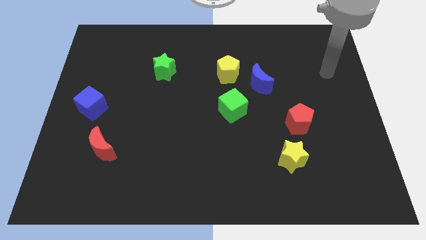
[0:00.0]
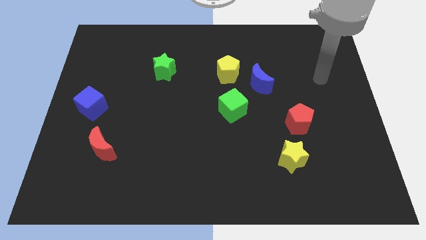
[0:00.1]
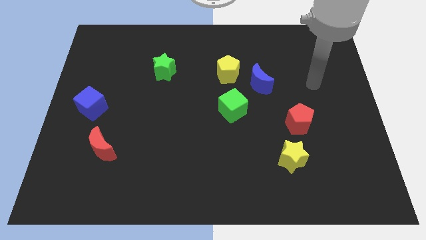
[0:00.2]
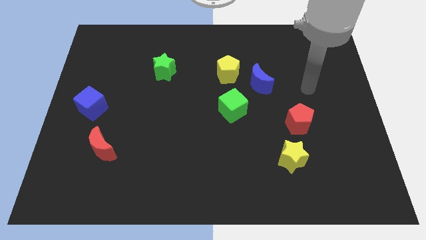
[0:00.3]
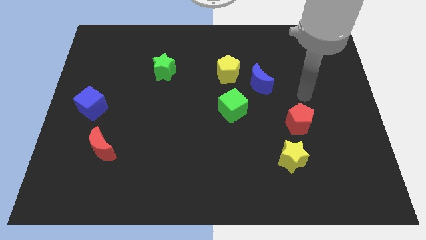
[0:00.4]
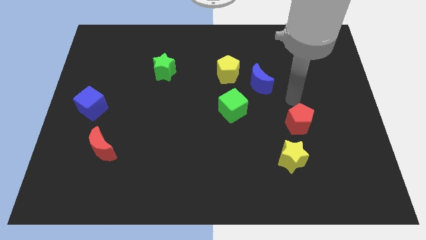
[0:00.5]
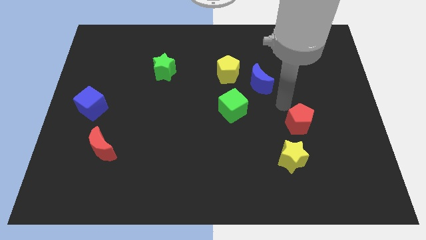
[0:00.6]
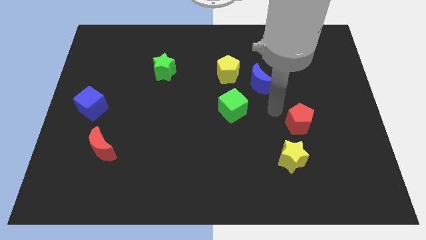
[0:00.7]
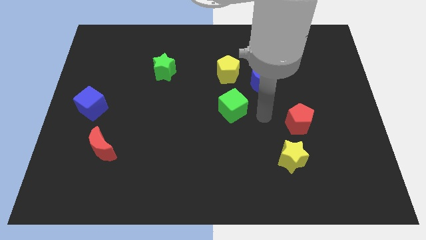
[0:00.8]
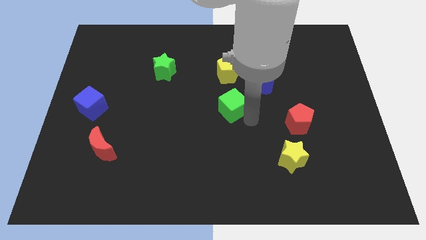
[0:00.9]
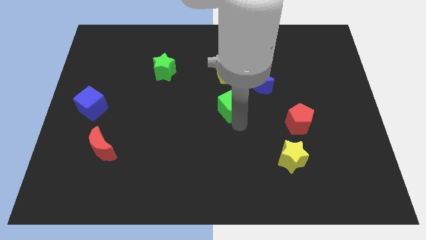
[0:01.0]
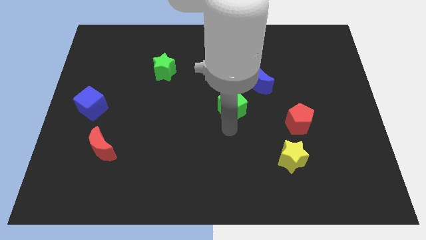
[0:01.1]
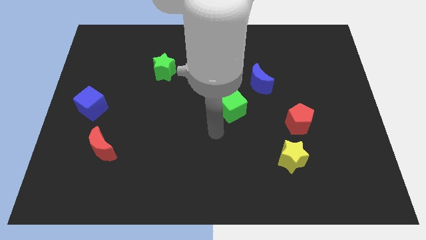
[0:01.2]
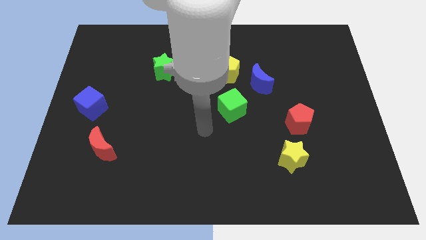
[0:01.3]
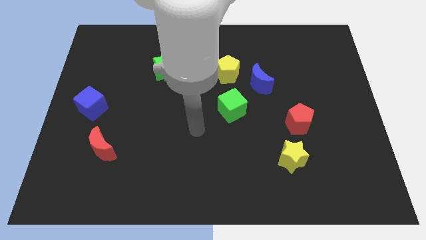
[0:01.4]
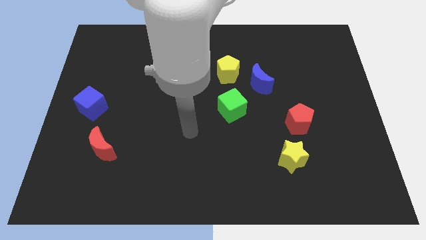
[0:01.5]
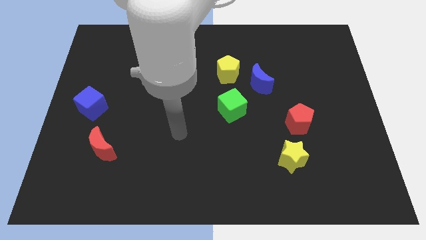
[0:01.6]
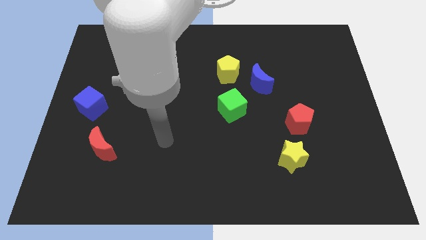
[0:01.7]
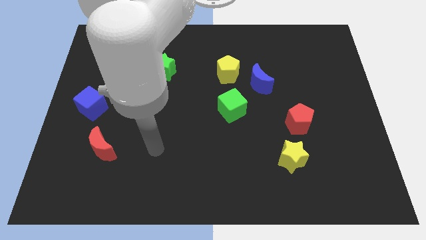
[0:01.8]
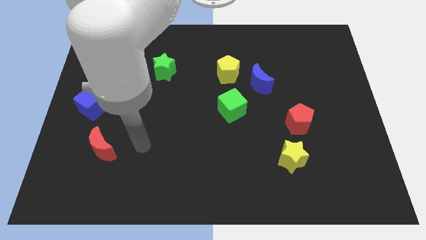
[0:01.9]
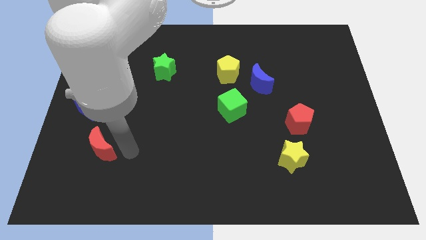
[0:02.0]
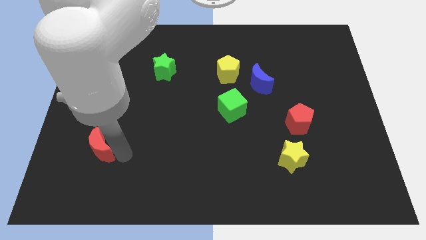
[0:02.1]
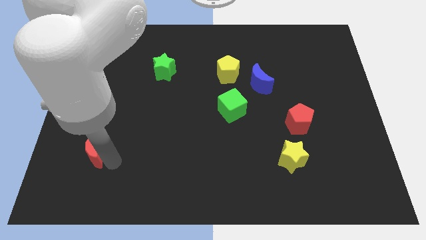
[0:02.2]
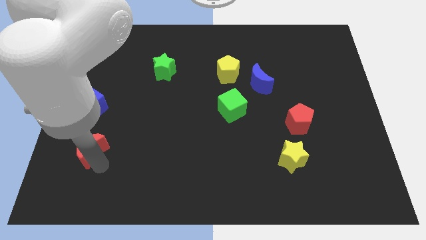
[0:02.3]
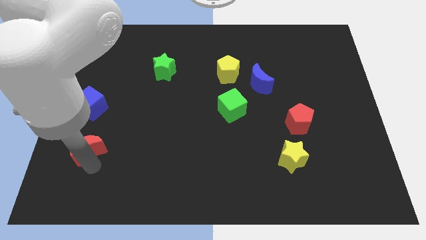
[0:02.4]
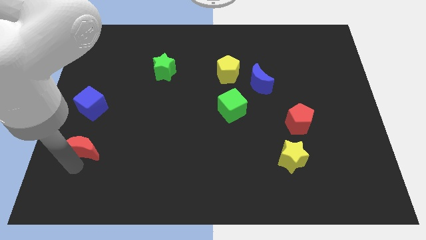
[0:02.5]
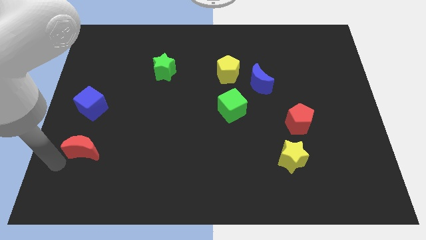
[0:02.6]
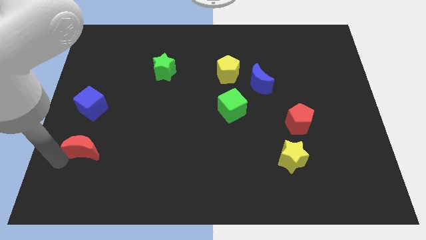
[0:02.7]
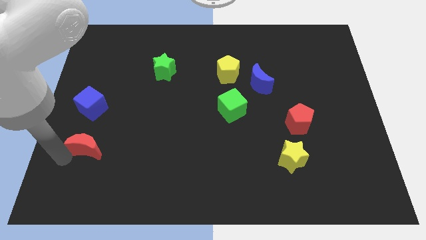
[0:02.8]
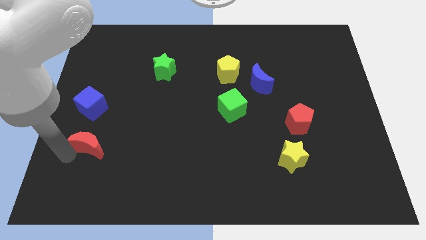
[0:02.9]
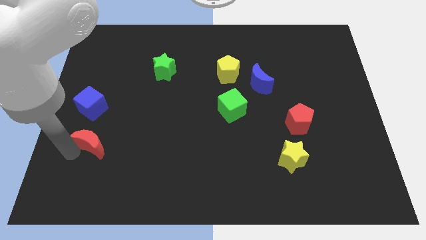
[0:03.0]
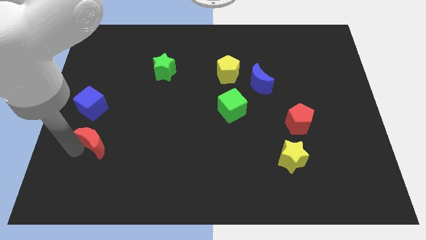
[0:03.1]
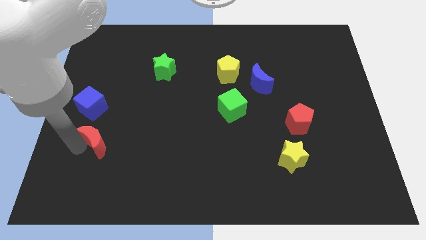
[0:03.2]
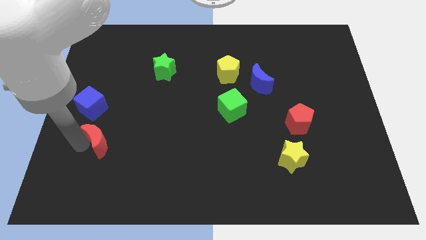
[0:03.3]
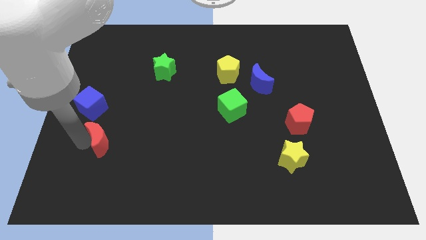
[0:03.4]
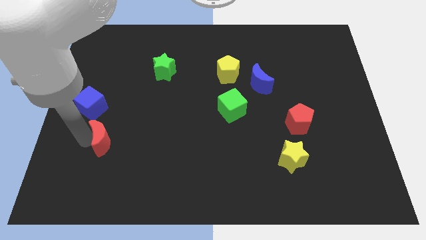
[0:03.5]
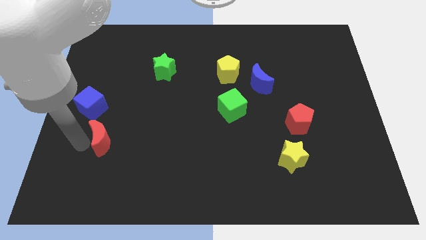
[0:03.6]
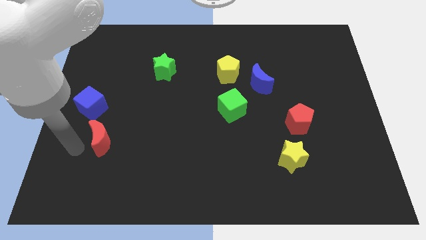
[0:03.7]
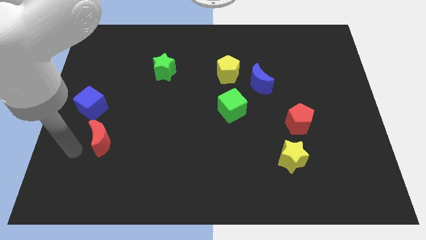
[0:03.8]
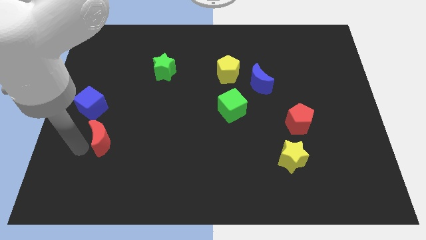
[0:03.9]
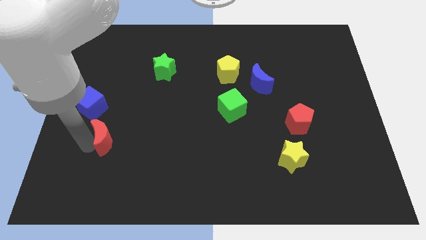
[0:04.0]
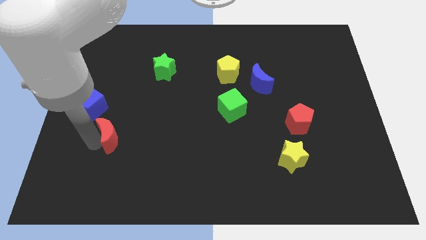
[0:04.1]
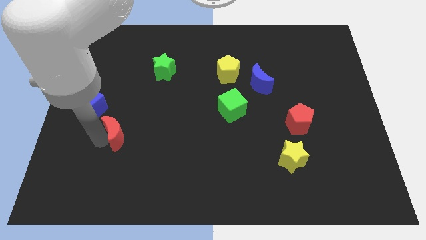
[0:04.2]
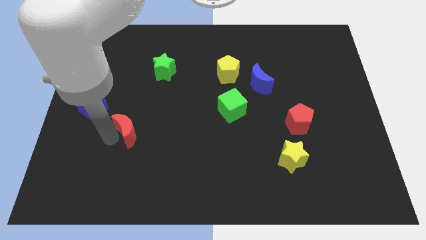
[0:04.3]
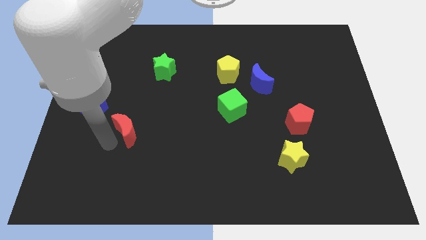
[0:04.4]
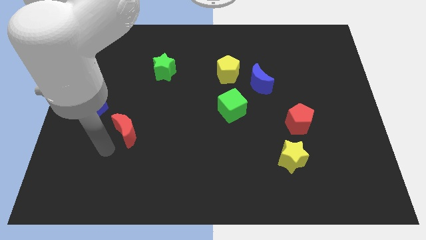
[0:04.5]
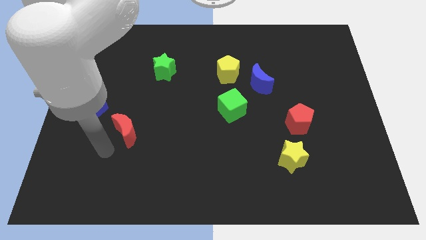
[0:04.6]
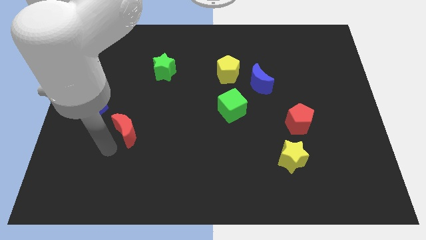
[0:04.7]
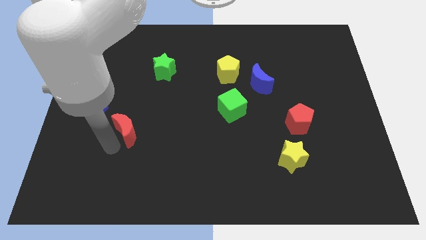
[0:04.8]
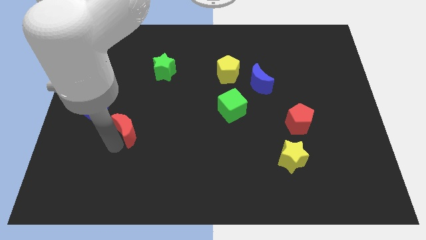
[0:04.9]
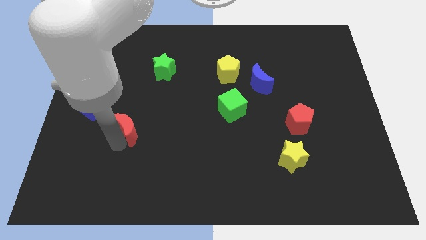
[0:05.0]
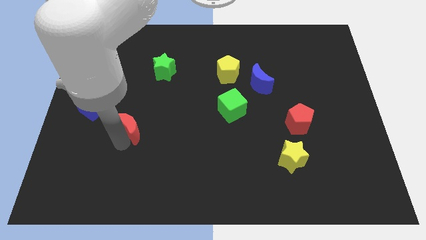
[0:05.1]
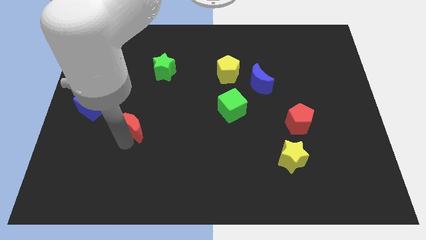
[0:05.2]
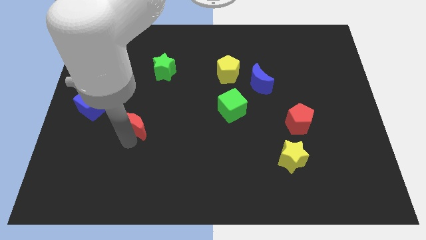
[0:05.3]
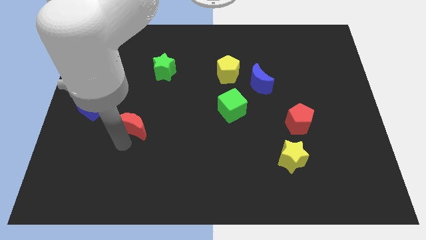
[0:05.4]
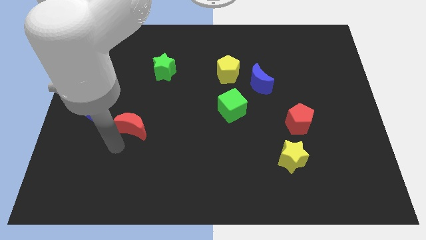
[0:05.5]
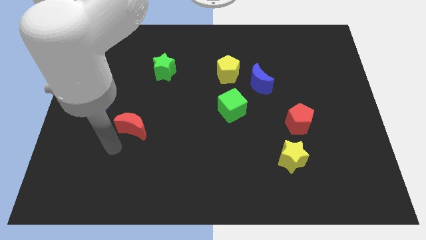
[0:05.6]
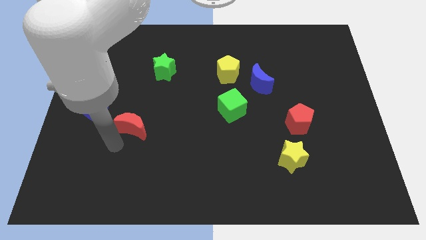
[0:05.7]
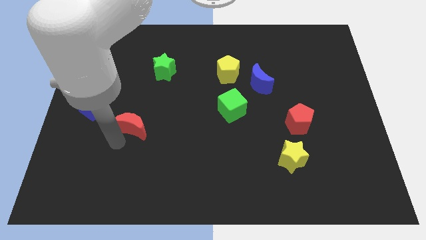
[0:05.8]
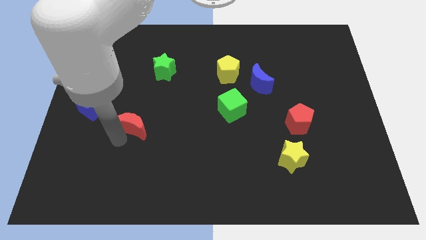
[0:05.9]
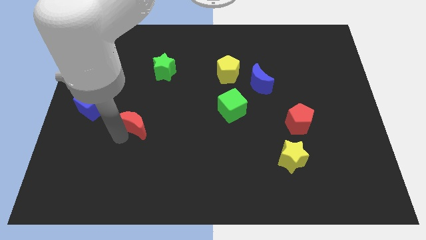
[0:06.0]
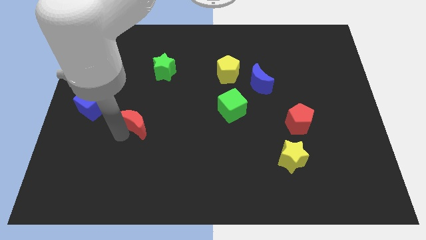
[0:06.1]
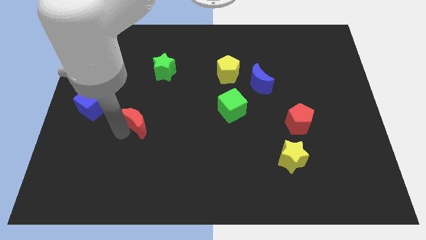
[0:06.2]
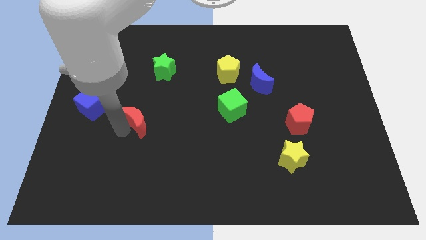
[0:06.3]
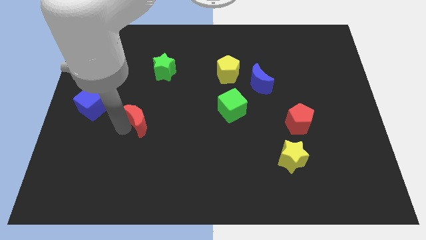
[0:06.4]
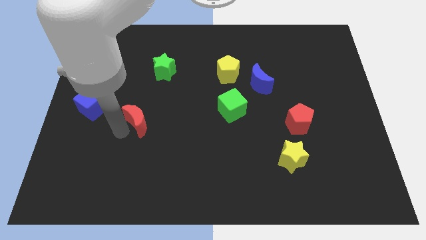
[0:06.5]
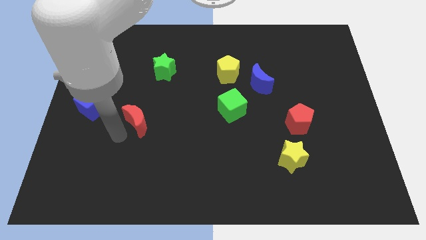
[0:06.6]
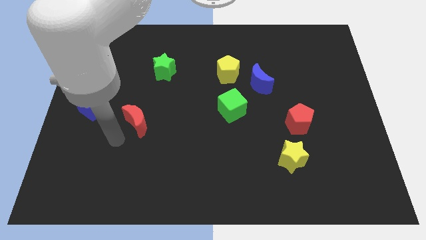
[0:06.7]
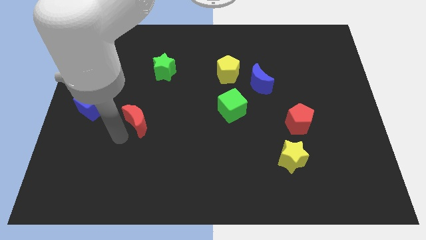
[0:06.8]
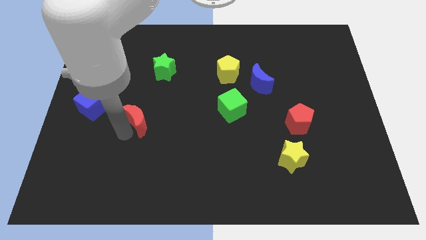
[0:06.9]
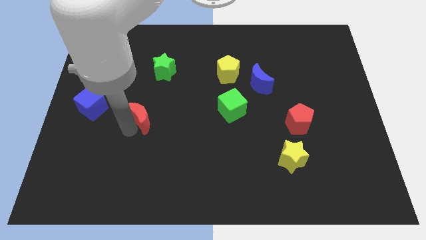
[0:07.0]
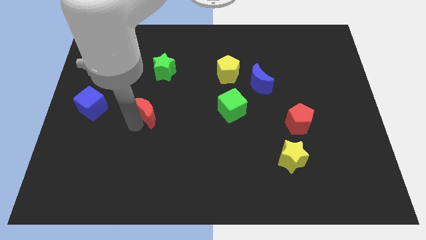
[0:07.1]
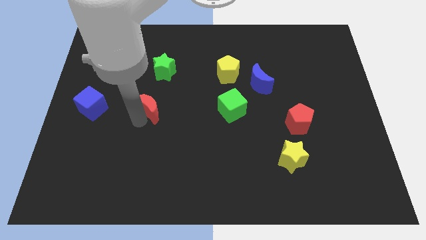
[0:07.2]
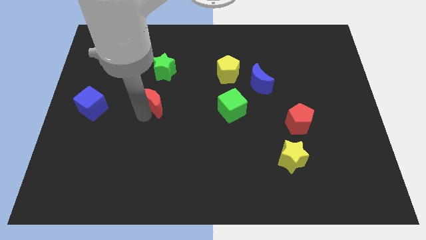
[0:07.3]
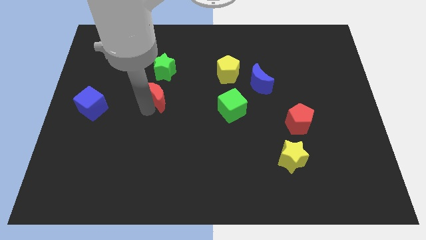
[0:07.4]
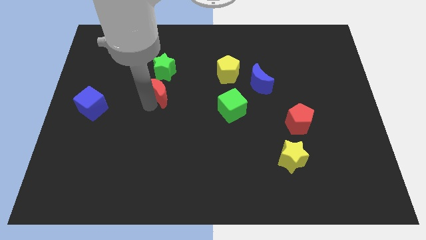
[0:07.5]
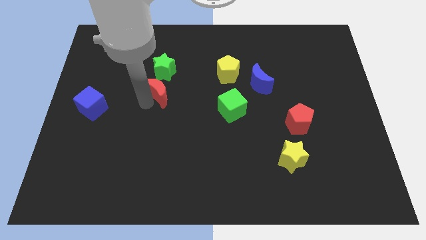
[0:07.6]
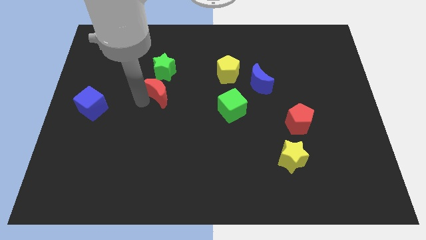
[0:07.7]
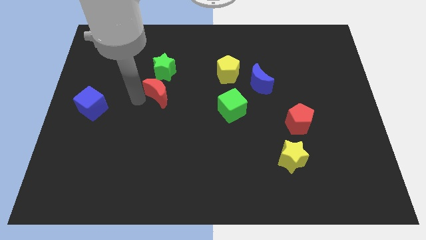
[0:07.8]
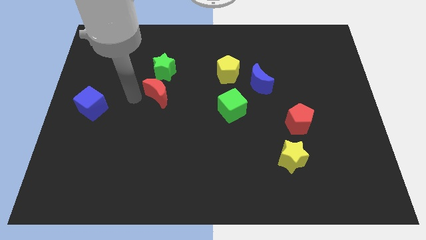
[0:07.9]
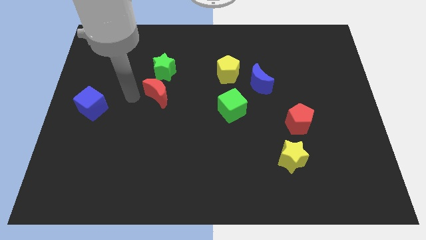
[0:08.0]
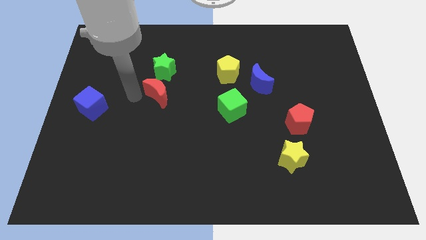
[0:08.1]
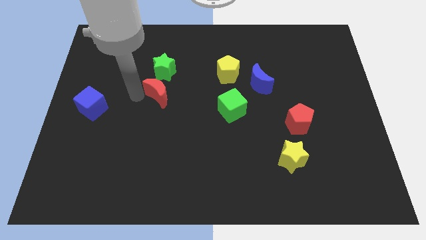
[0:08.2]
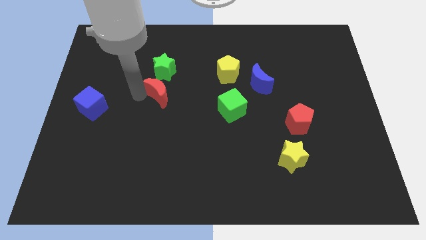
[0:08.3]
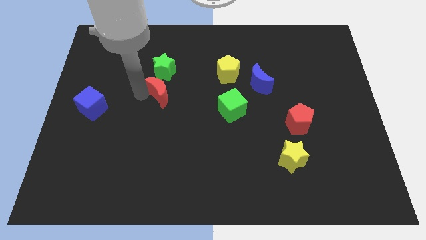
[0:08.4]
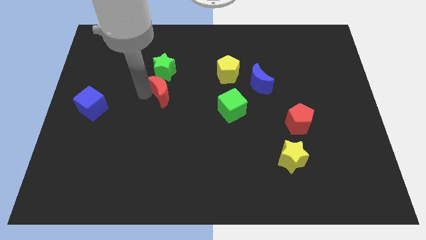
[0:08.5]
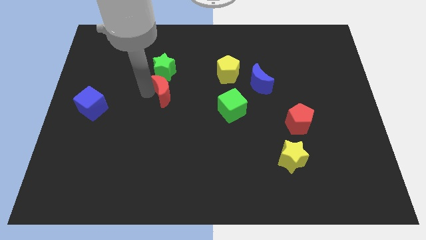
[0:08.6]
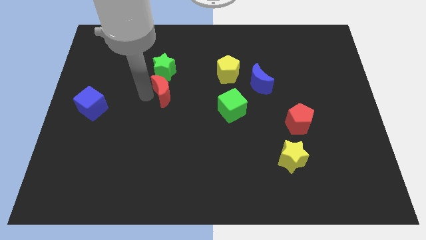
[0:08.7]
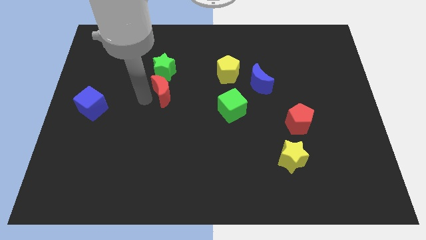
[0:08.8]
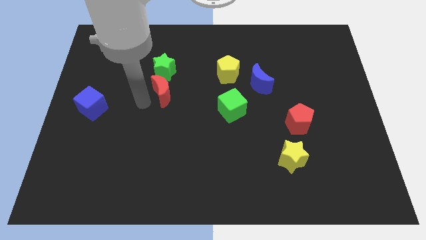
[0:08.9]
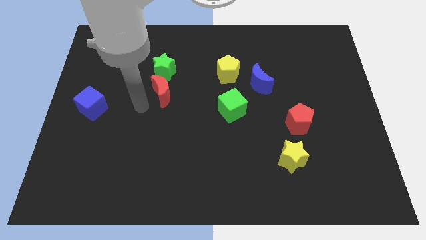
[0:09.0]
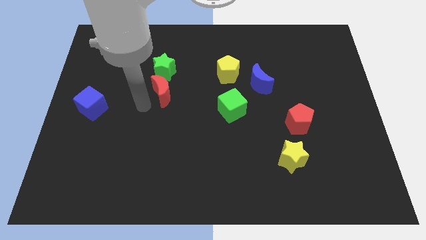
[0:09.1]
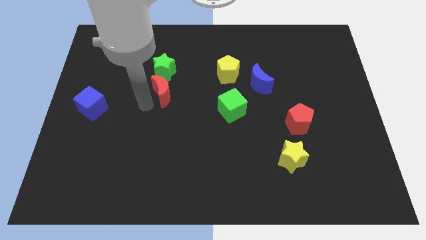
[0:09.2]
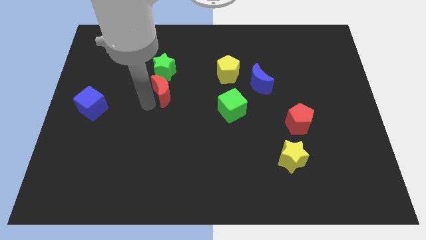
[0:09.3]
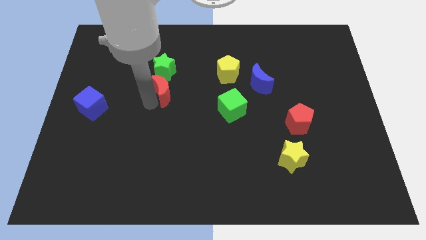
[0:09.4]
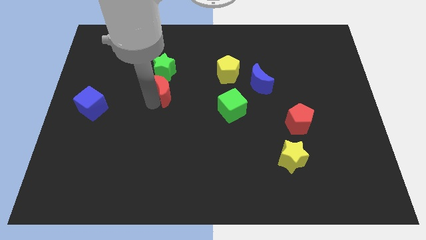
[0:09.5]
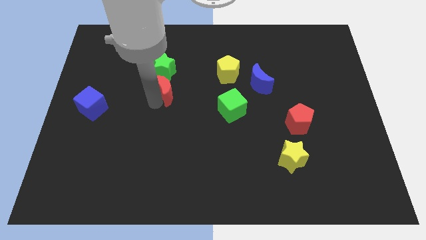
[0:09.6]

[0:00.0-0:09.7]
move the red moon diagonally upwards and right
